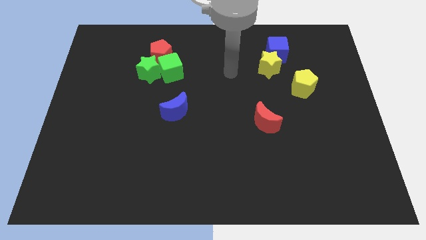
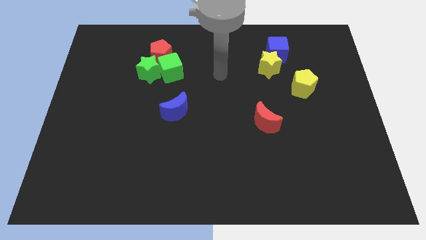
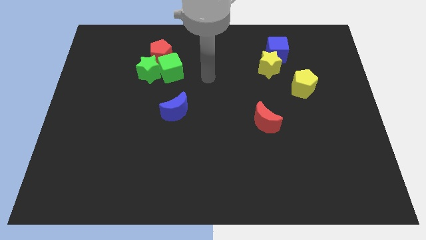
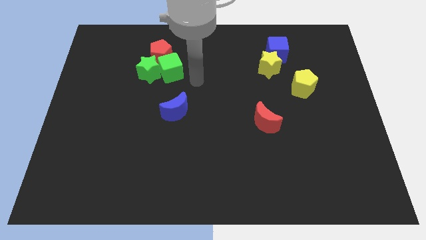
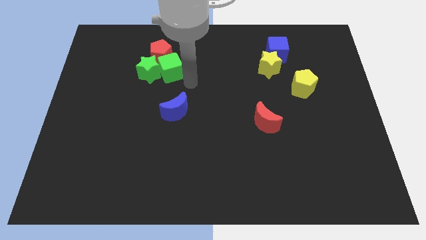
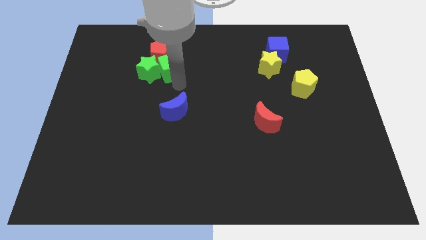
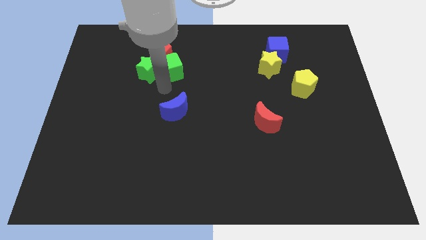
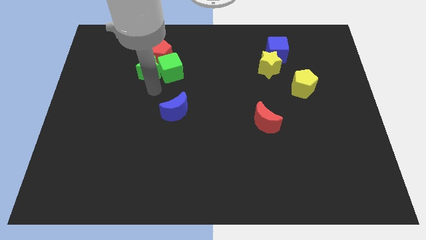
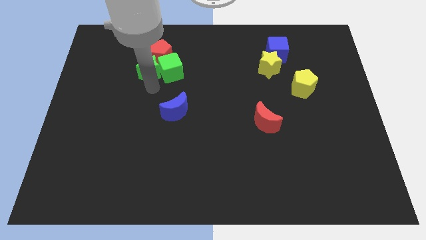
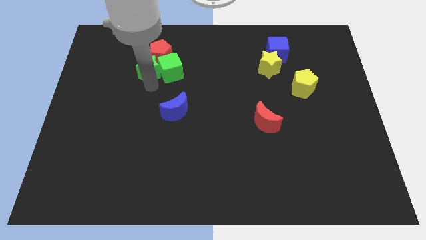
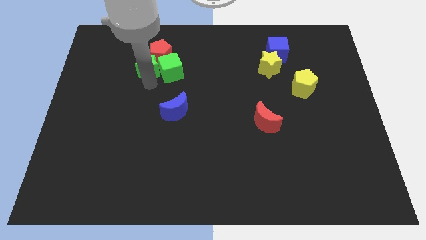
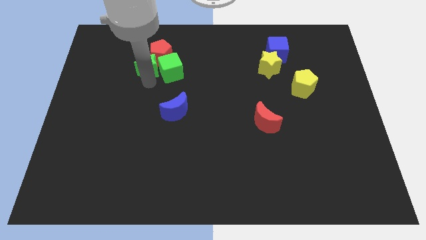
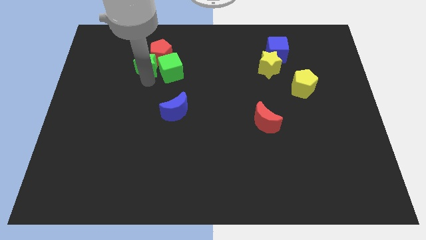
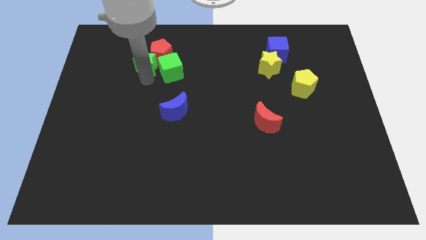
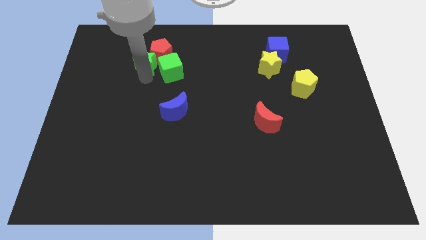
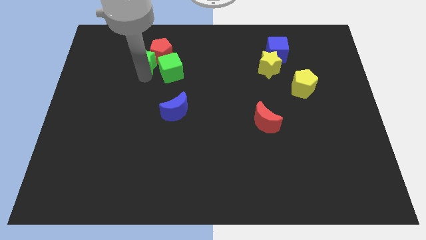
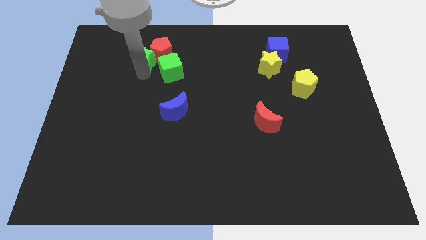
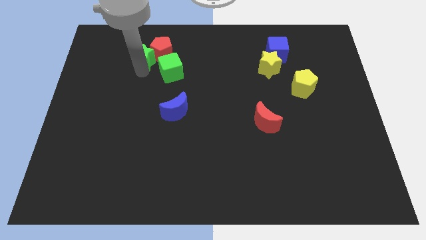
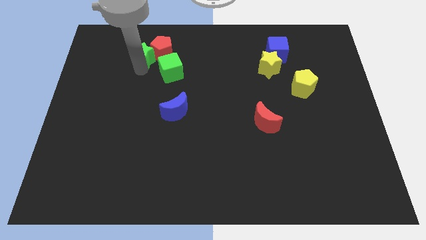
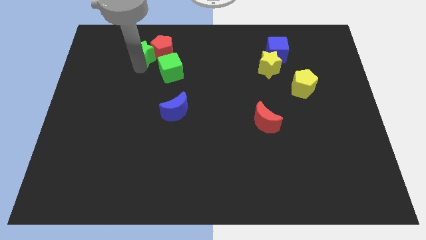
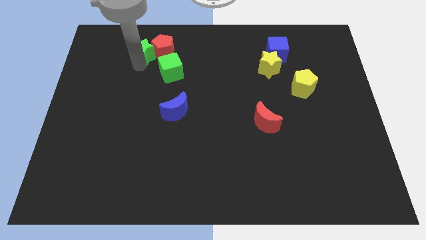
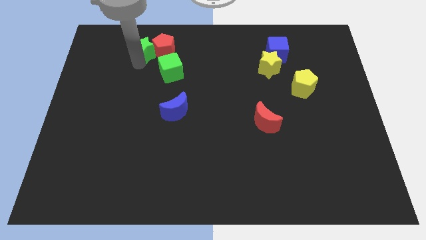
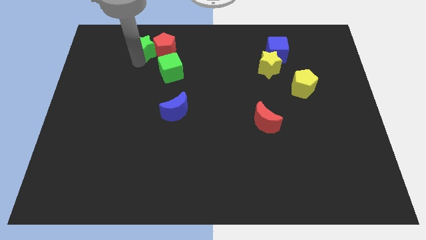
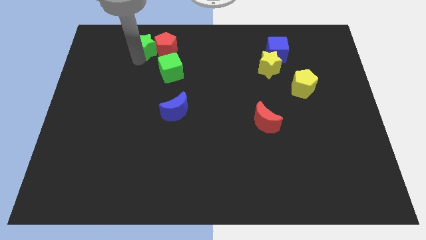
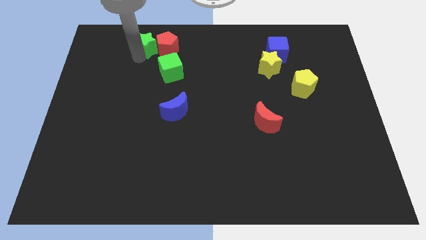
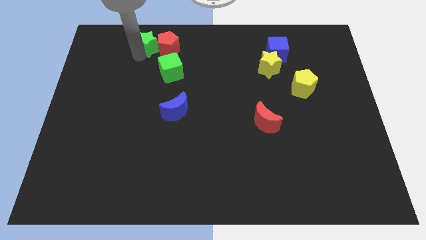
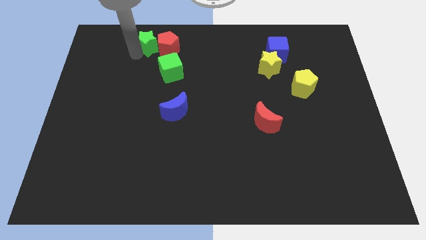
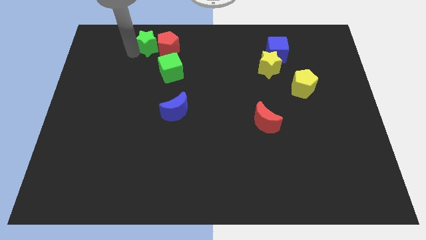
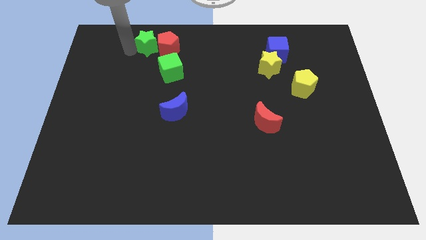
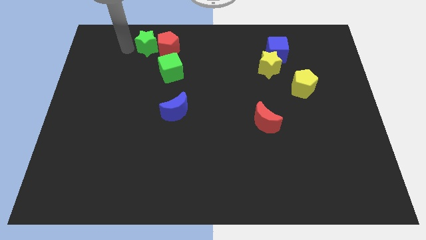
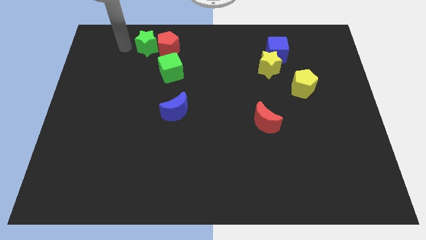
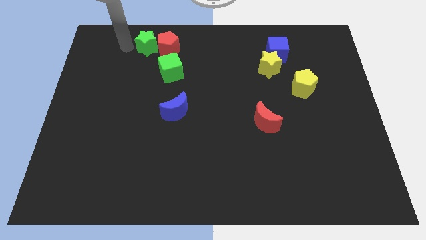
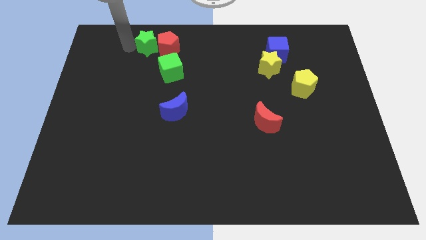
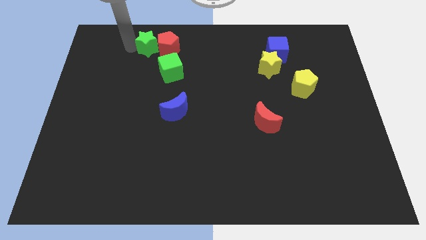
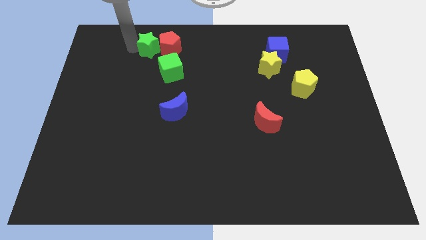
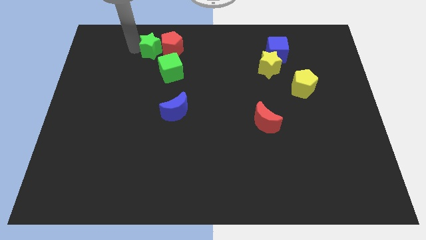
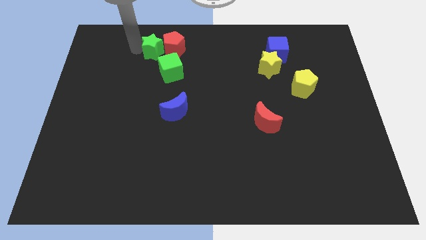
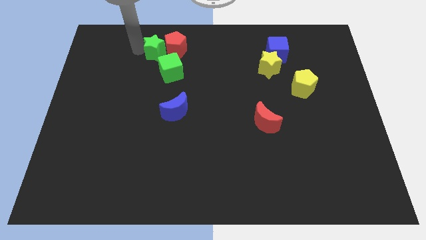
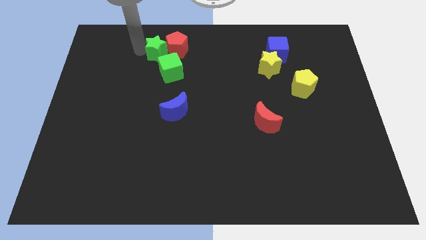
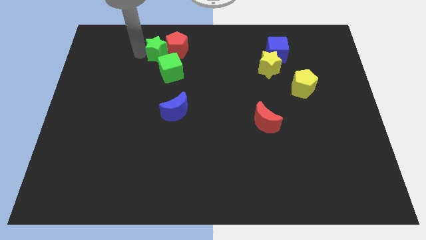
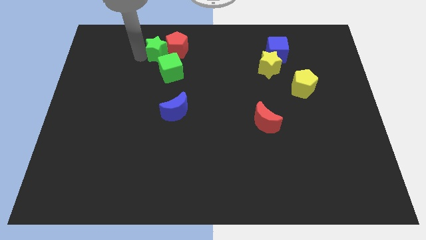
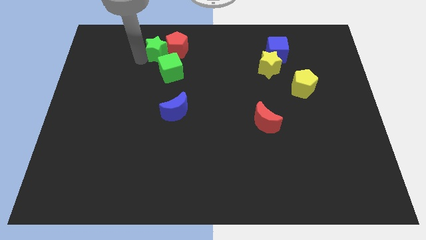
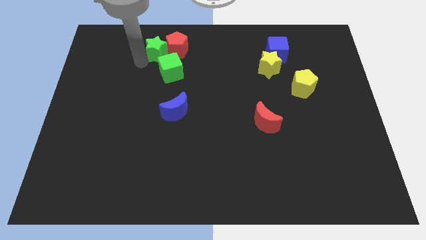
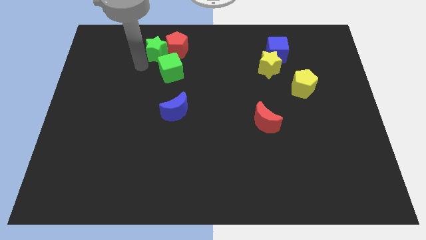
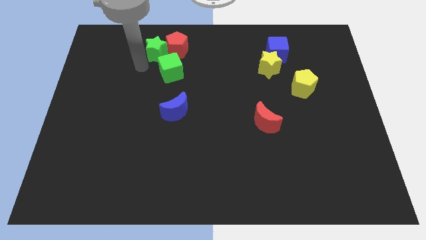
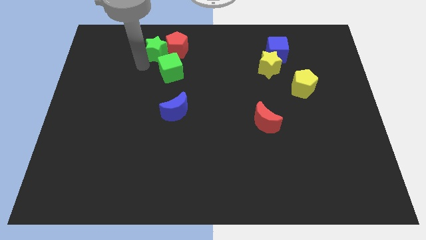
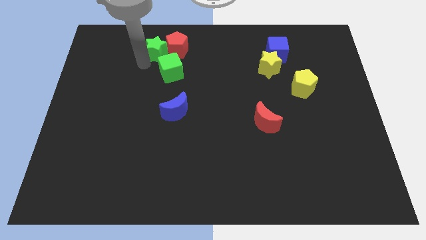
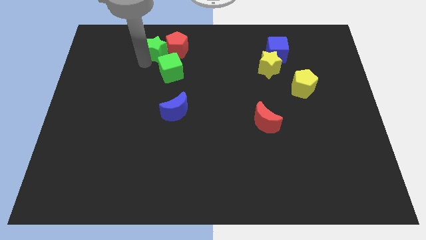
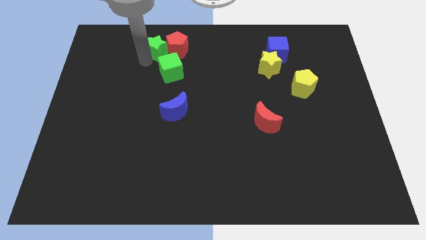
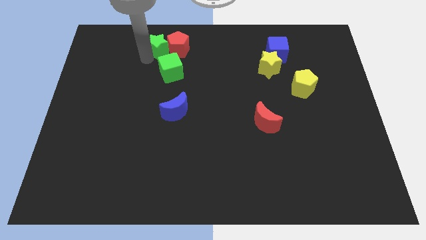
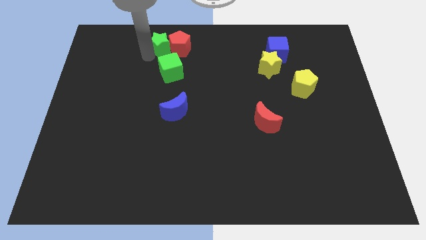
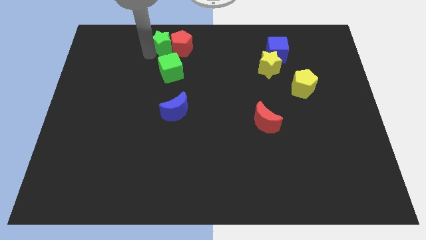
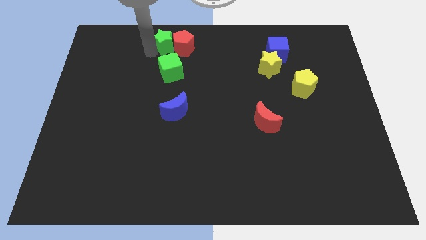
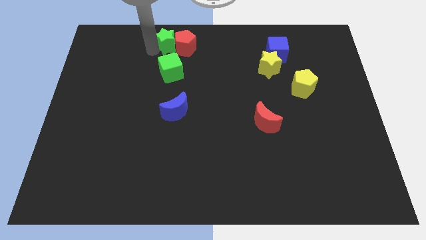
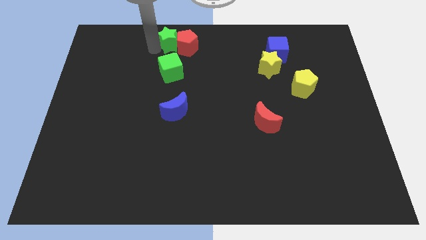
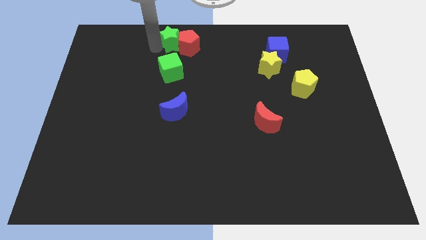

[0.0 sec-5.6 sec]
slide the green star to the top side

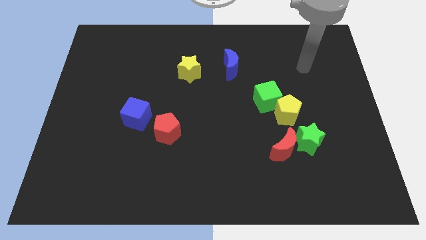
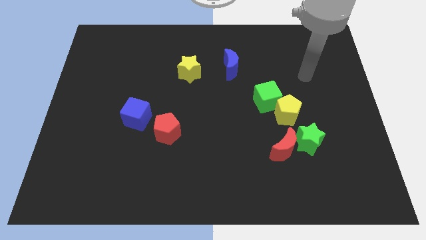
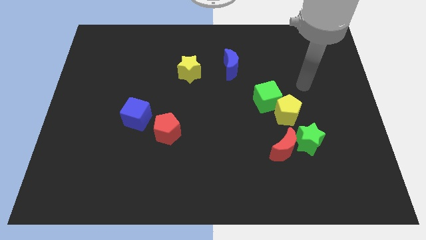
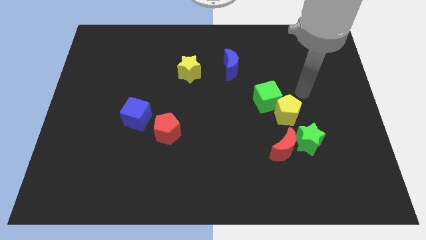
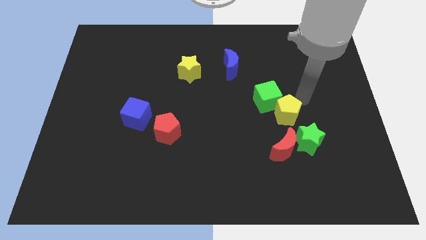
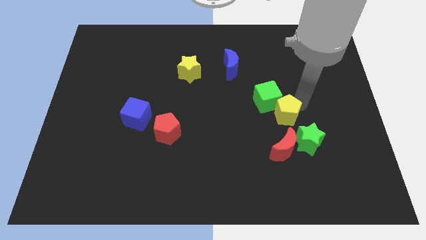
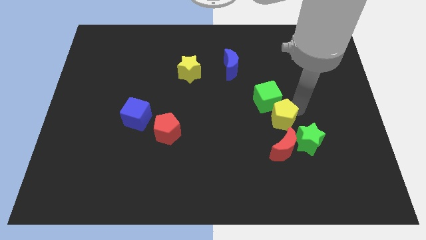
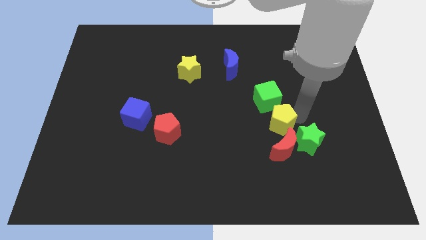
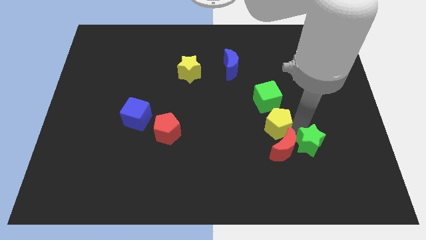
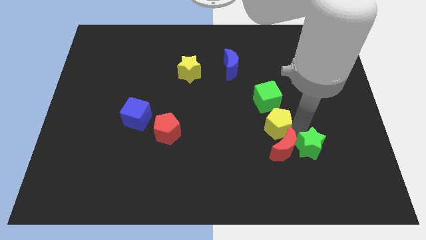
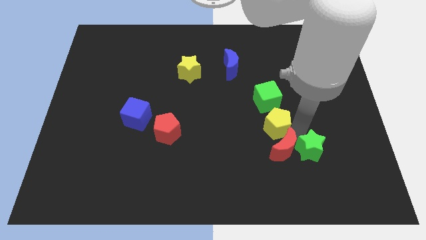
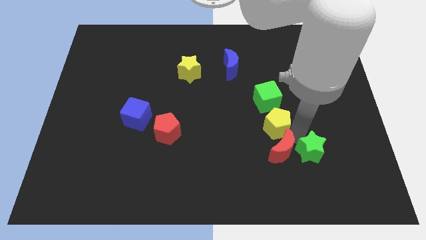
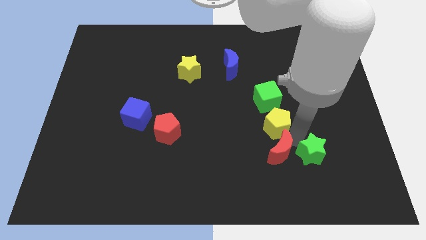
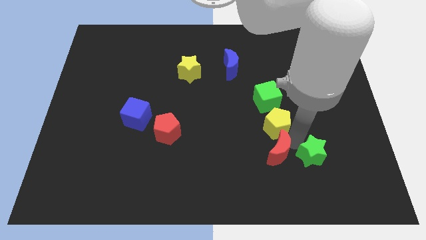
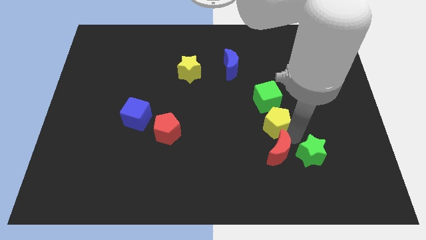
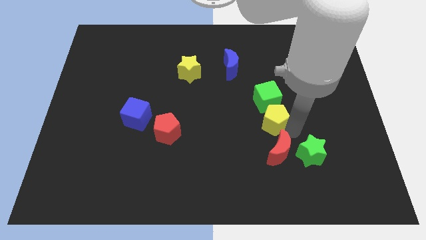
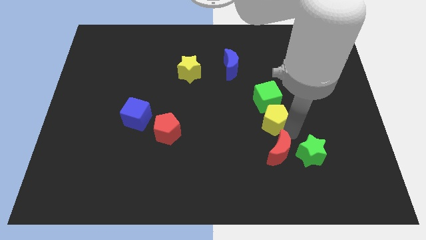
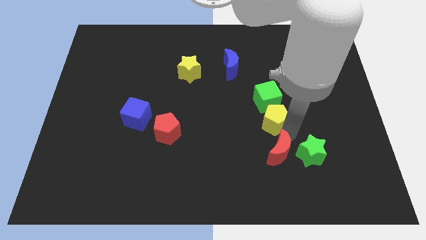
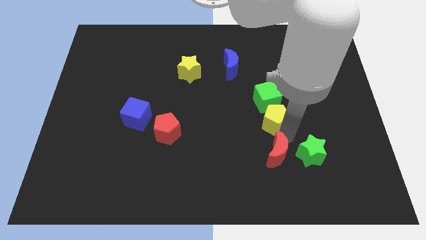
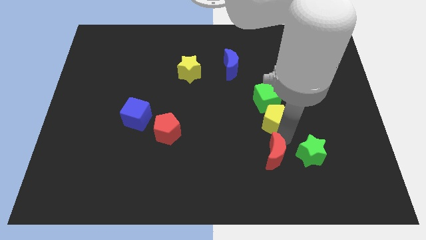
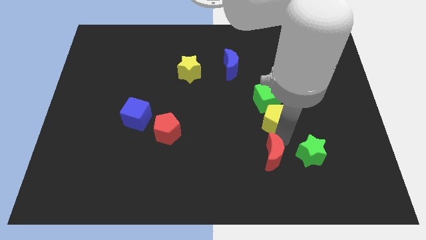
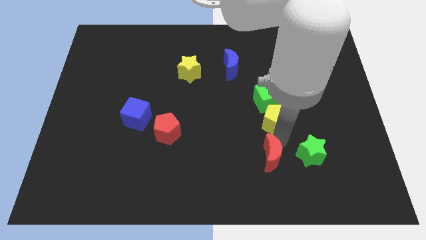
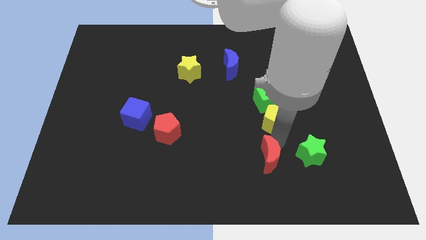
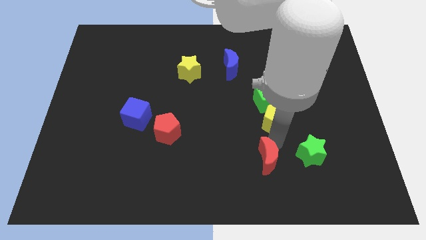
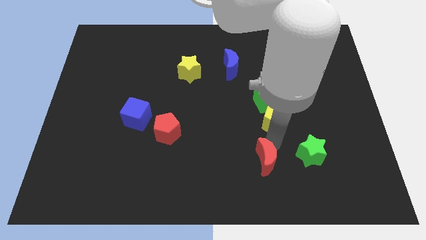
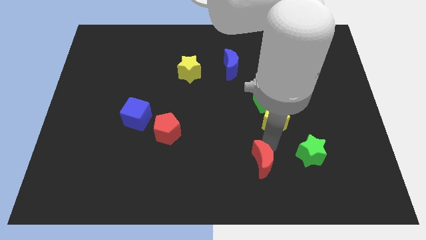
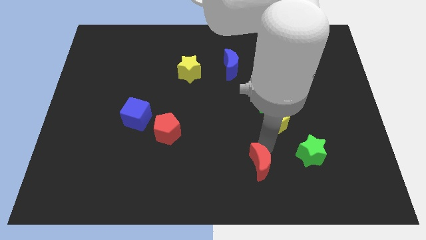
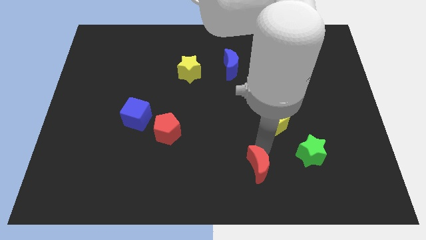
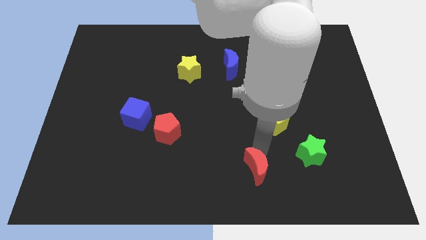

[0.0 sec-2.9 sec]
slide the red moon to the bottom
